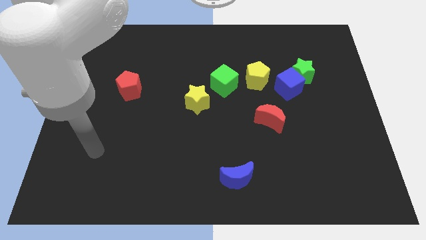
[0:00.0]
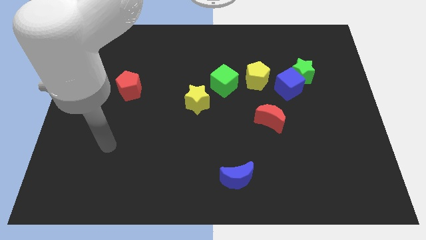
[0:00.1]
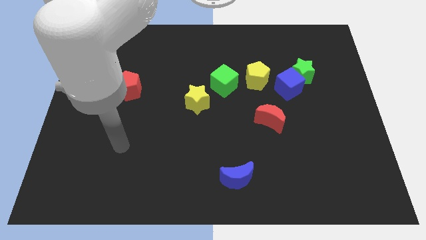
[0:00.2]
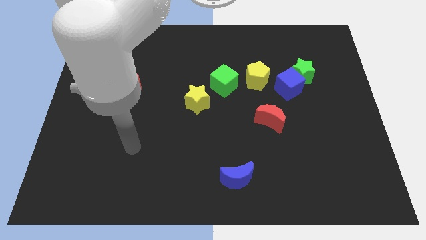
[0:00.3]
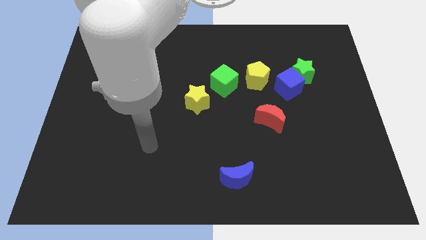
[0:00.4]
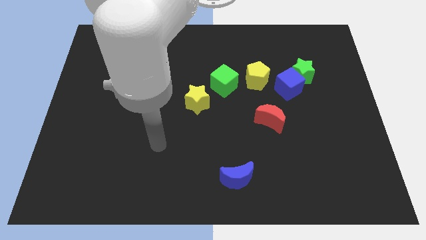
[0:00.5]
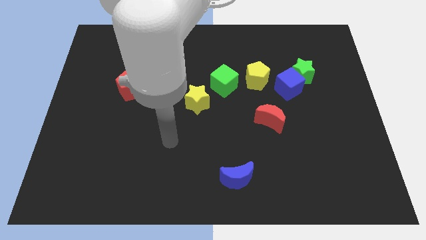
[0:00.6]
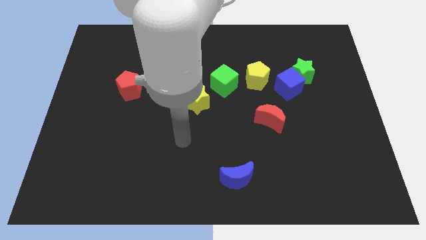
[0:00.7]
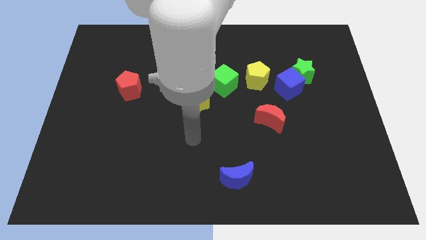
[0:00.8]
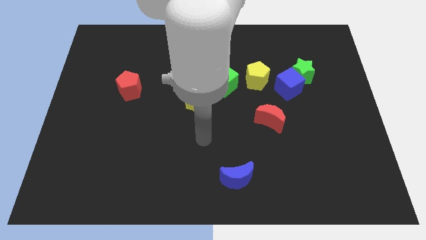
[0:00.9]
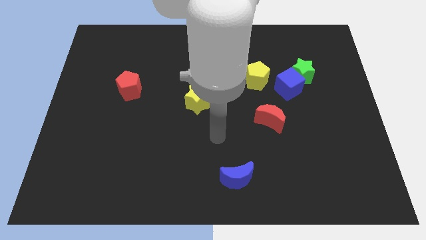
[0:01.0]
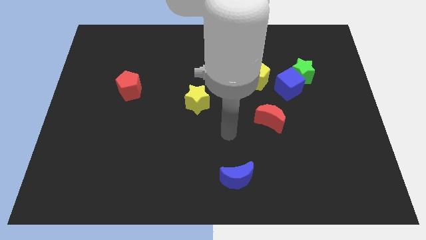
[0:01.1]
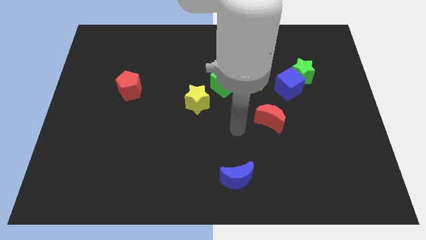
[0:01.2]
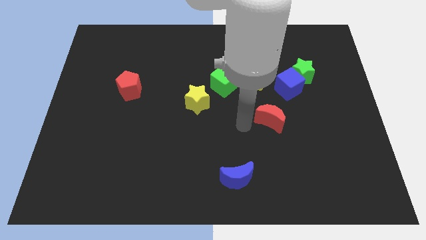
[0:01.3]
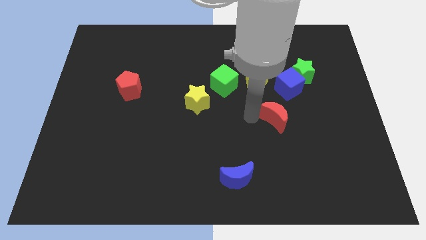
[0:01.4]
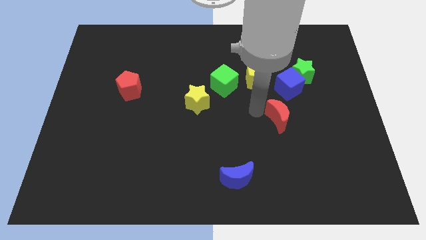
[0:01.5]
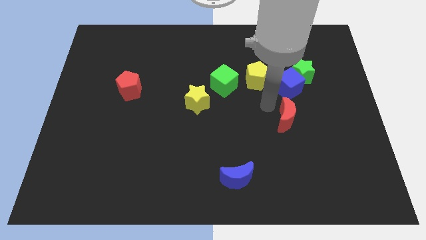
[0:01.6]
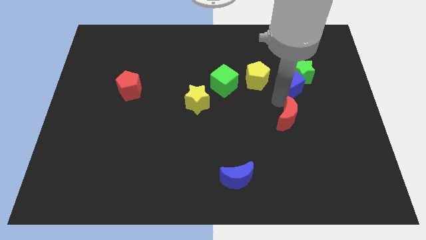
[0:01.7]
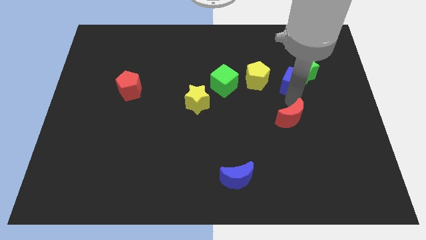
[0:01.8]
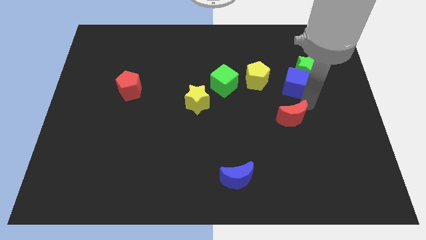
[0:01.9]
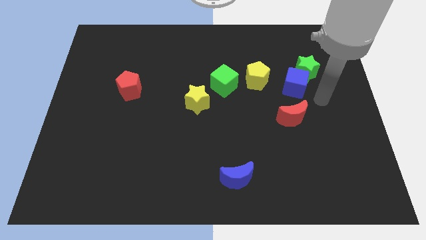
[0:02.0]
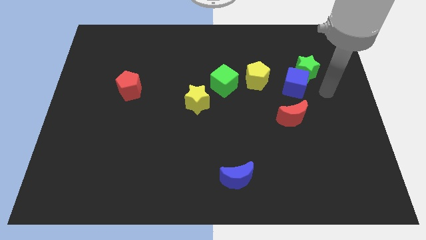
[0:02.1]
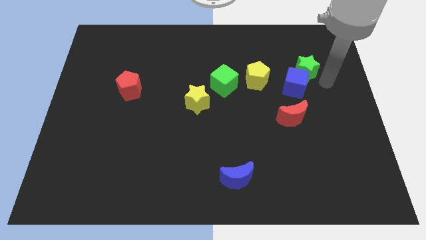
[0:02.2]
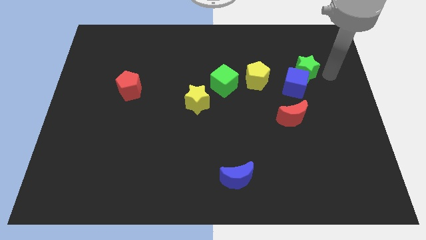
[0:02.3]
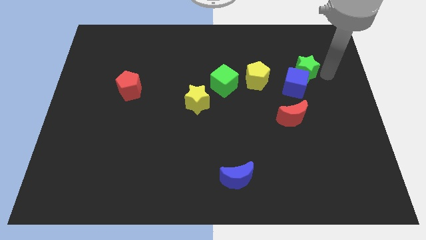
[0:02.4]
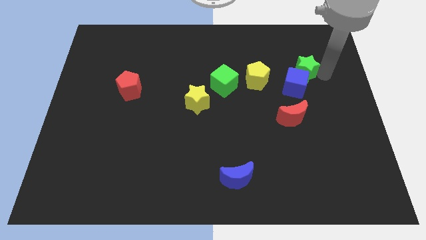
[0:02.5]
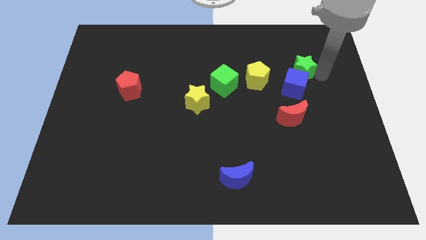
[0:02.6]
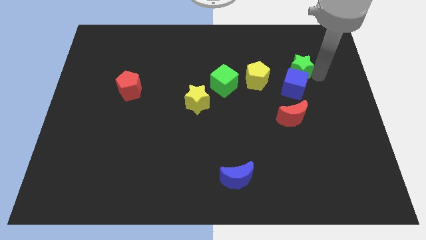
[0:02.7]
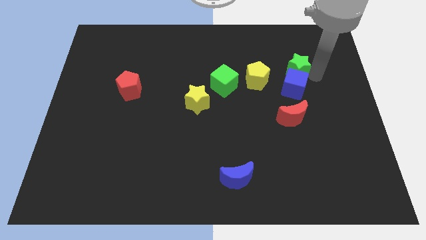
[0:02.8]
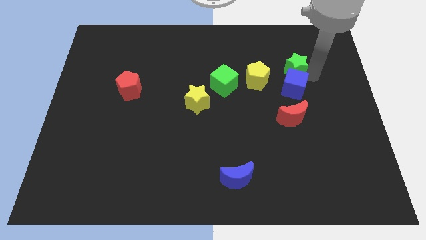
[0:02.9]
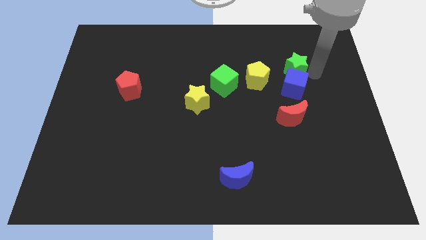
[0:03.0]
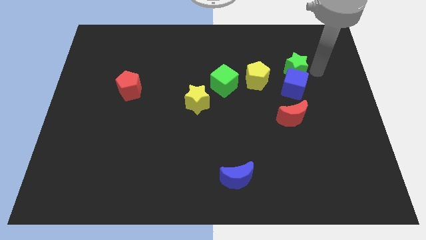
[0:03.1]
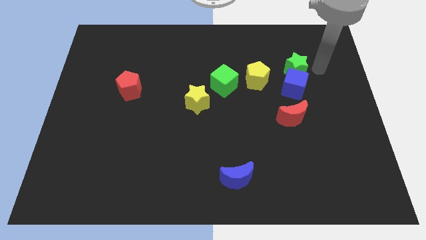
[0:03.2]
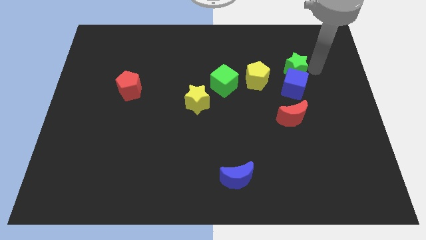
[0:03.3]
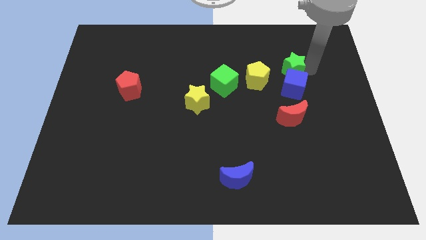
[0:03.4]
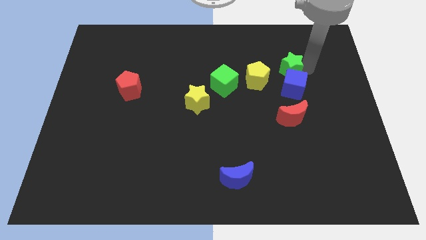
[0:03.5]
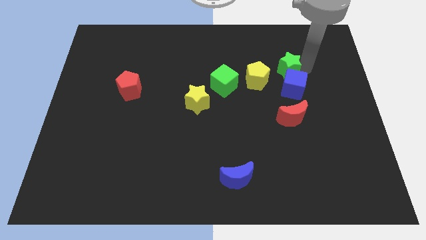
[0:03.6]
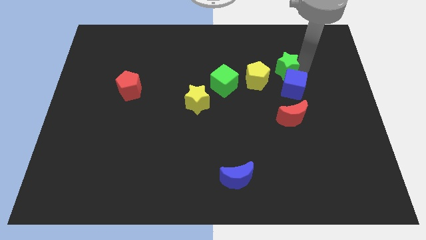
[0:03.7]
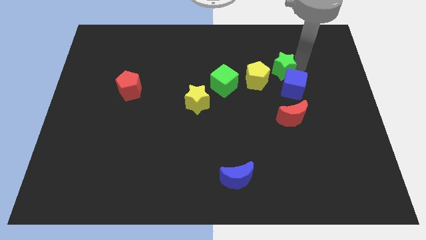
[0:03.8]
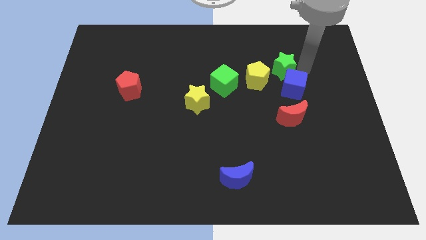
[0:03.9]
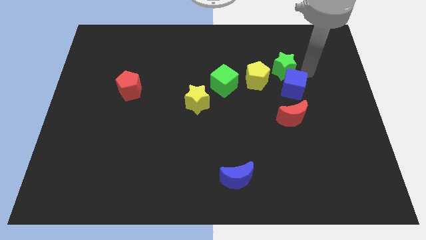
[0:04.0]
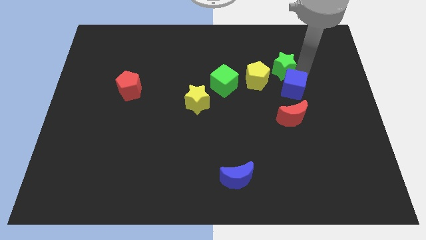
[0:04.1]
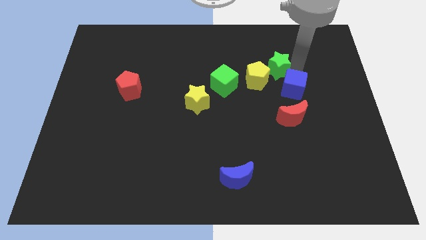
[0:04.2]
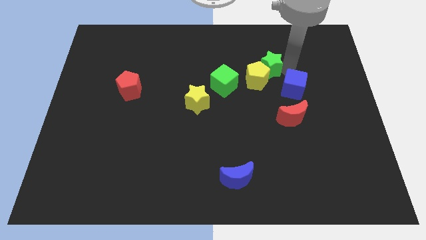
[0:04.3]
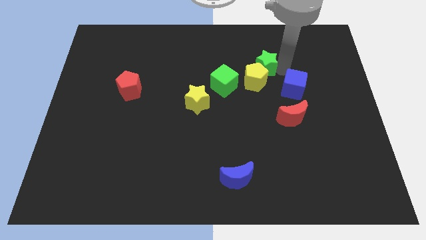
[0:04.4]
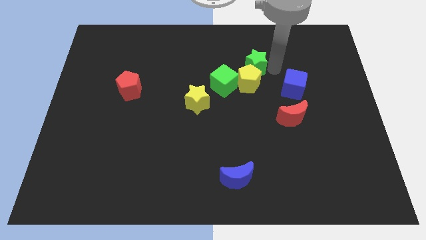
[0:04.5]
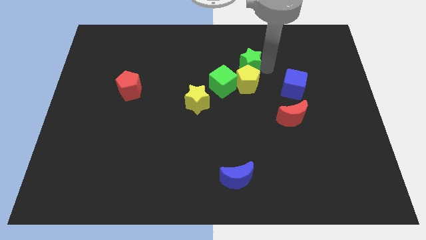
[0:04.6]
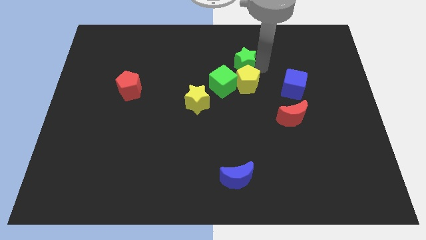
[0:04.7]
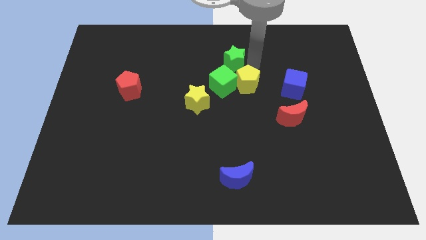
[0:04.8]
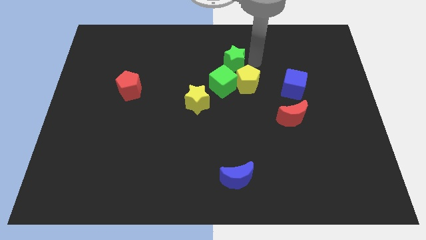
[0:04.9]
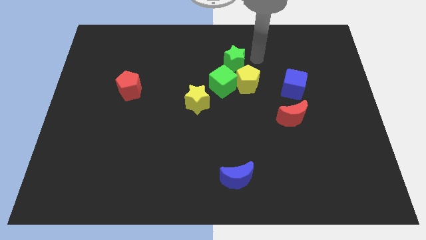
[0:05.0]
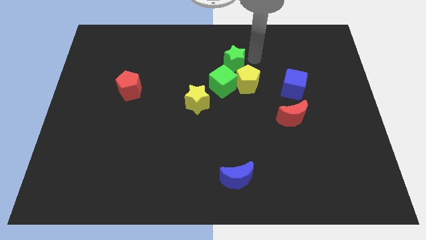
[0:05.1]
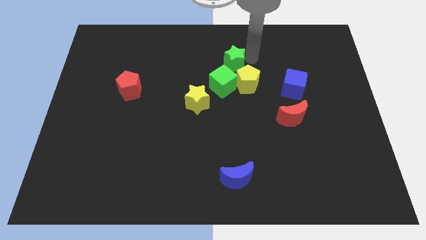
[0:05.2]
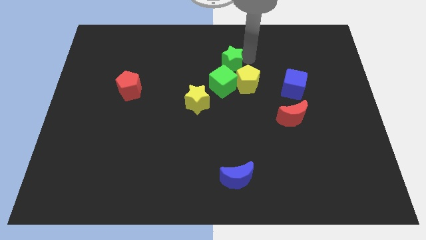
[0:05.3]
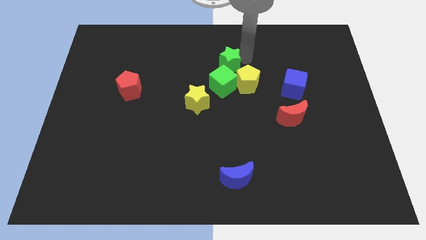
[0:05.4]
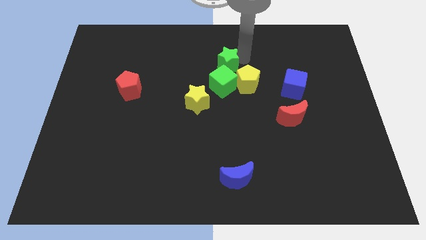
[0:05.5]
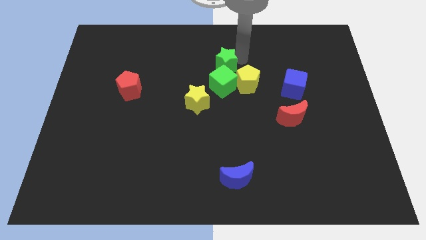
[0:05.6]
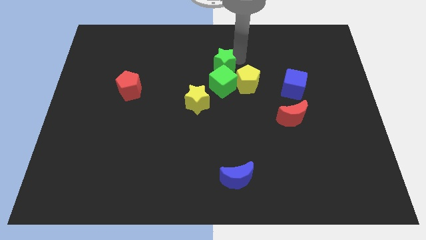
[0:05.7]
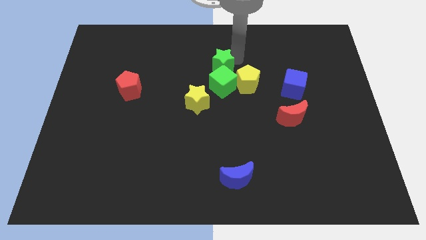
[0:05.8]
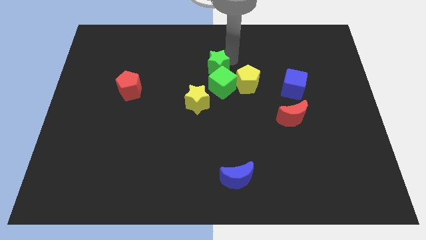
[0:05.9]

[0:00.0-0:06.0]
slide the green star left

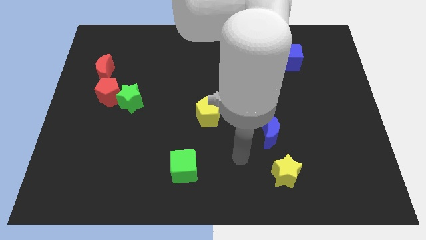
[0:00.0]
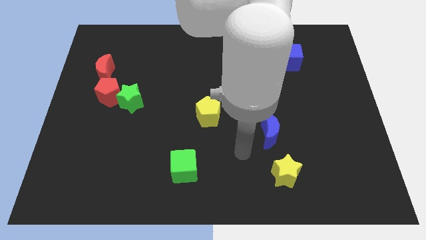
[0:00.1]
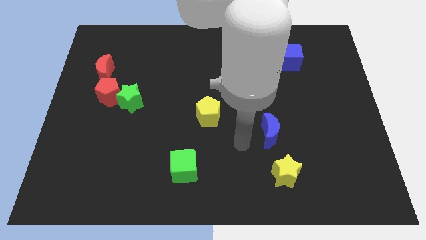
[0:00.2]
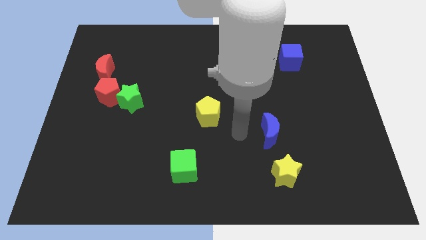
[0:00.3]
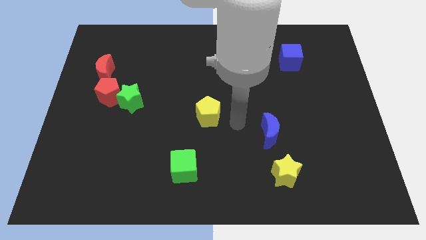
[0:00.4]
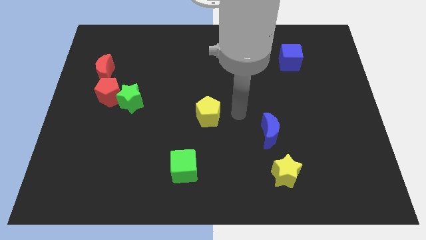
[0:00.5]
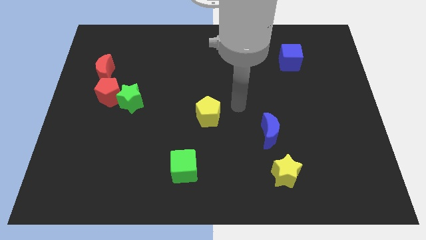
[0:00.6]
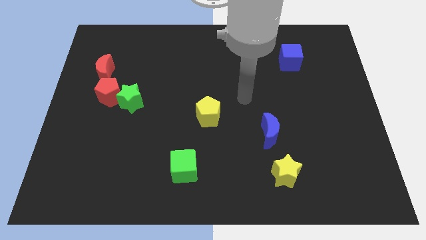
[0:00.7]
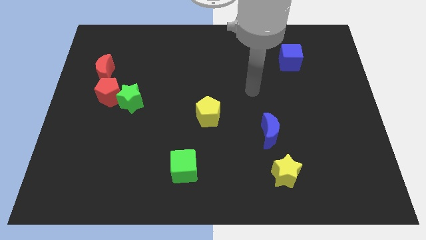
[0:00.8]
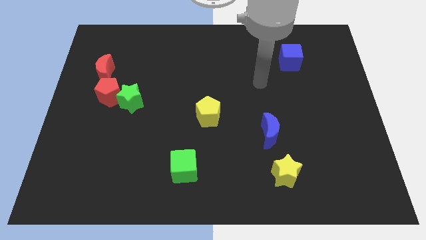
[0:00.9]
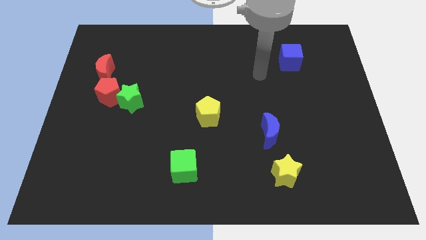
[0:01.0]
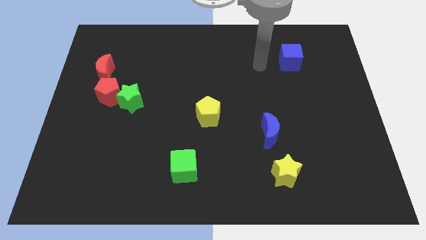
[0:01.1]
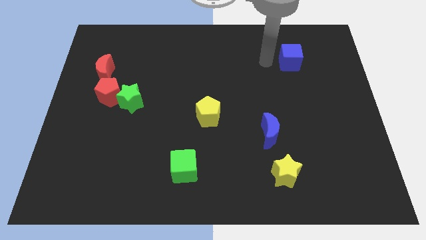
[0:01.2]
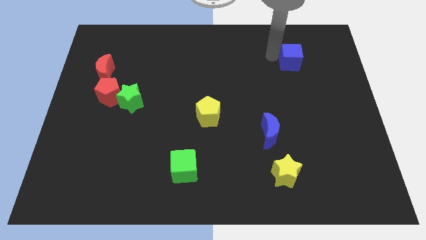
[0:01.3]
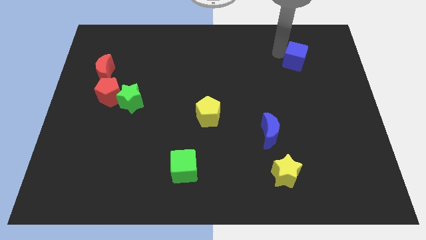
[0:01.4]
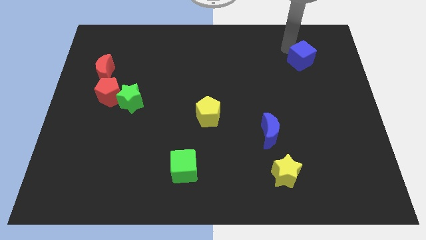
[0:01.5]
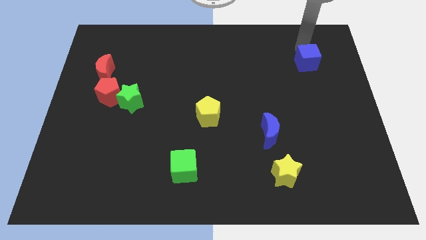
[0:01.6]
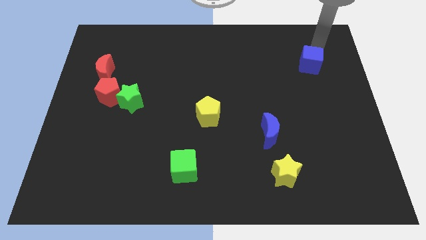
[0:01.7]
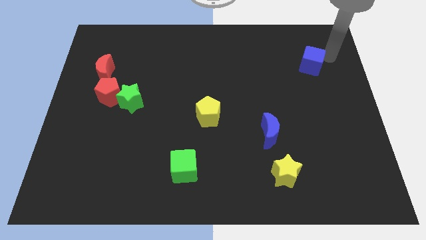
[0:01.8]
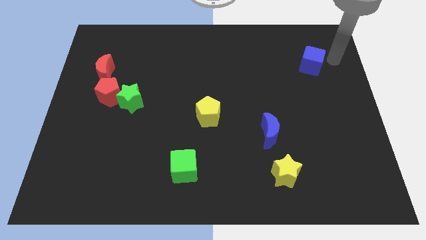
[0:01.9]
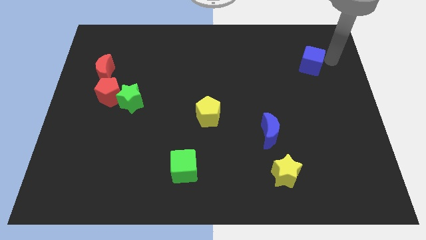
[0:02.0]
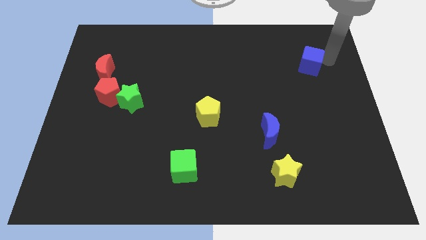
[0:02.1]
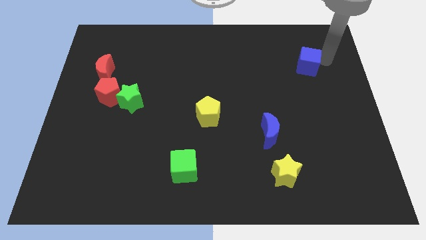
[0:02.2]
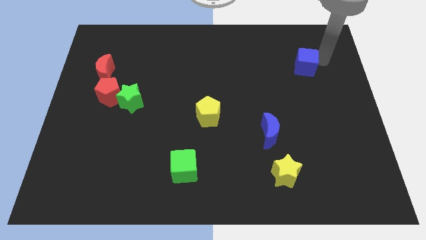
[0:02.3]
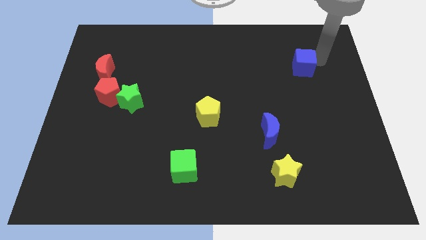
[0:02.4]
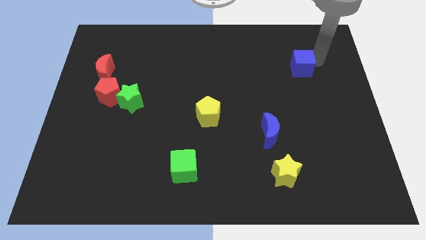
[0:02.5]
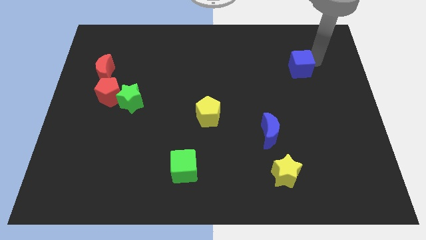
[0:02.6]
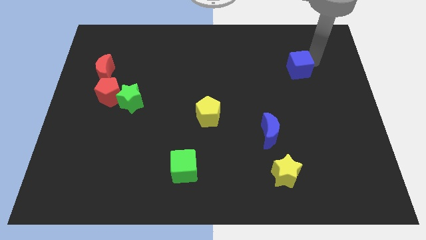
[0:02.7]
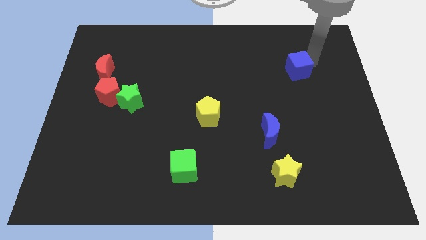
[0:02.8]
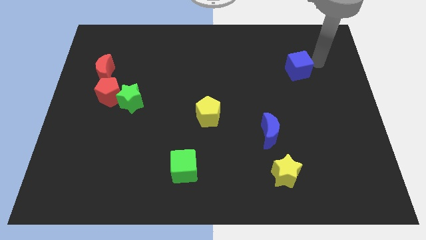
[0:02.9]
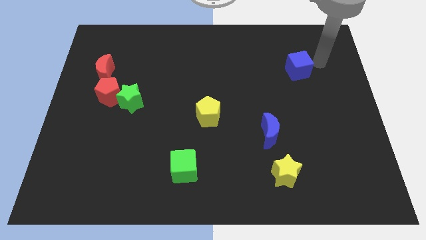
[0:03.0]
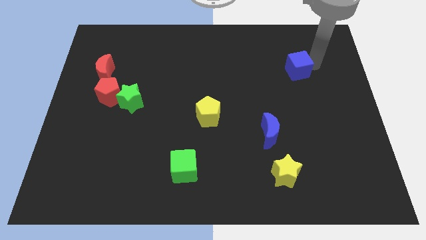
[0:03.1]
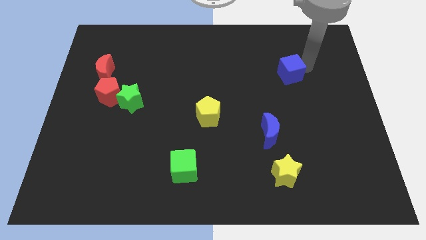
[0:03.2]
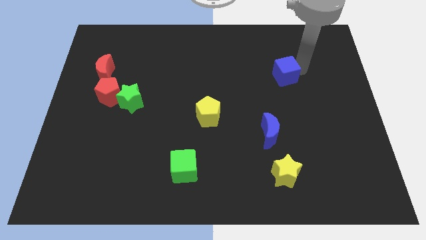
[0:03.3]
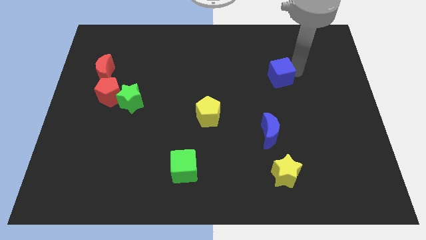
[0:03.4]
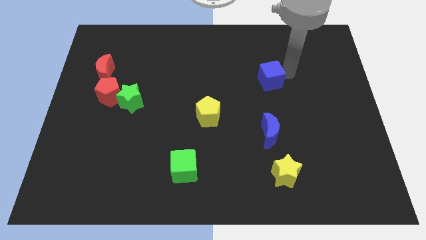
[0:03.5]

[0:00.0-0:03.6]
slightly slide the blue cube down and then to the left
